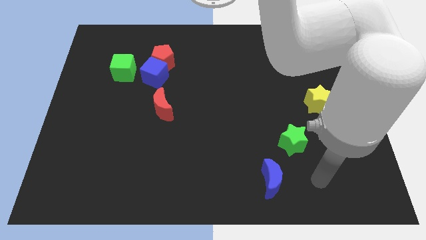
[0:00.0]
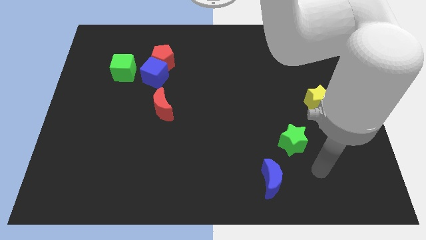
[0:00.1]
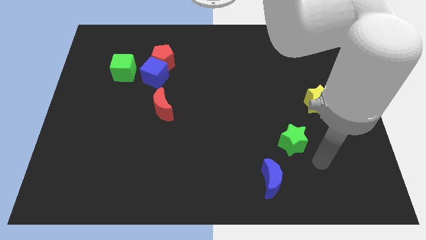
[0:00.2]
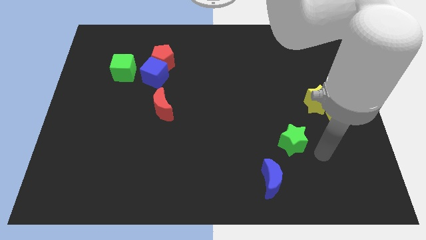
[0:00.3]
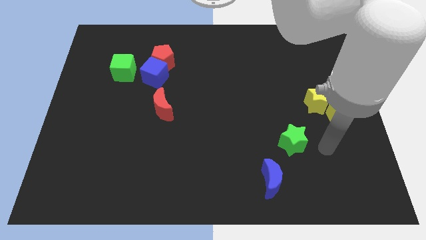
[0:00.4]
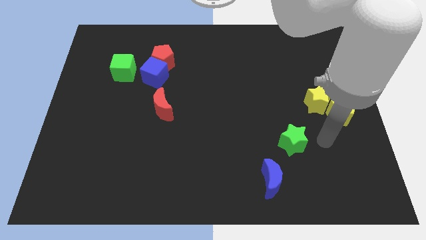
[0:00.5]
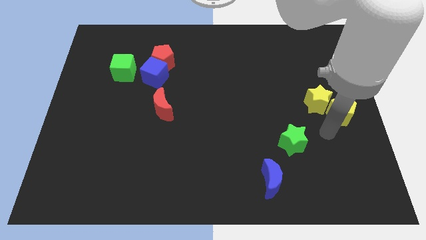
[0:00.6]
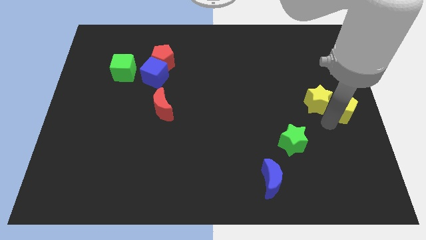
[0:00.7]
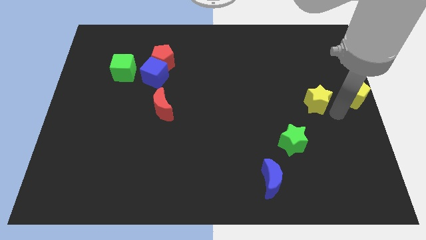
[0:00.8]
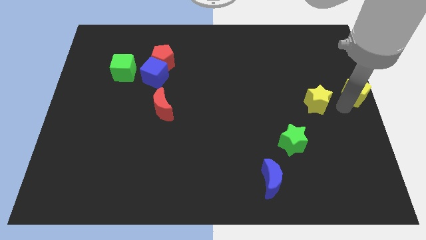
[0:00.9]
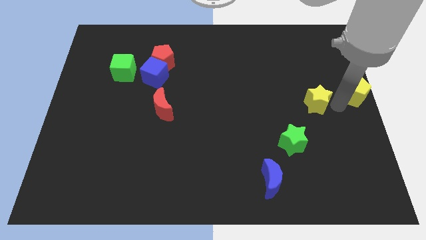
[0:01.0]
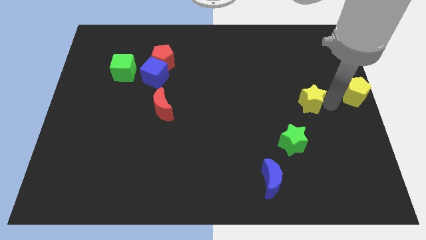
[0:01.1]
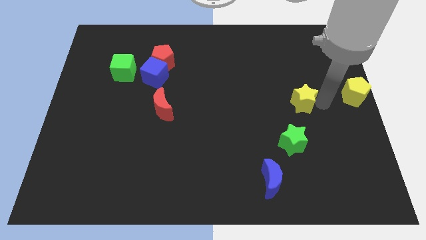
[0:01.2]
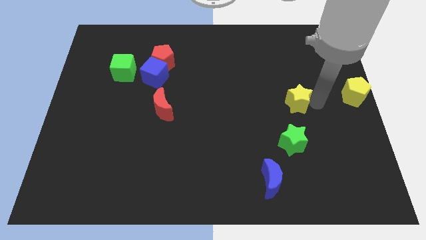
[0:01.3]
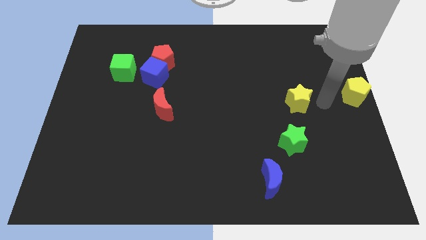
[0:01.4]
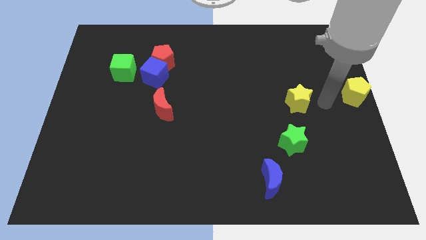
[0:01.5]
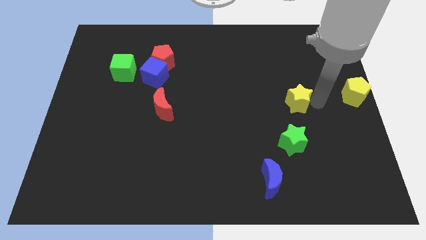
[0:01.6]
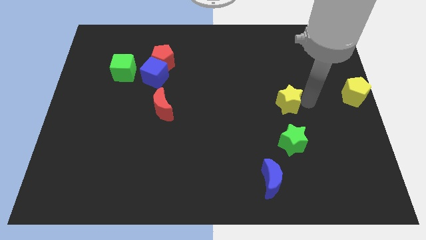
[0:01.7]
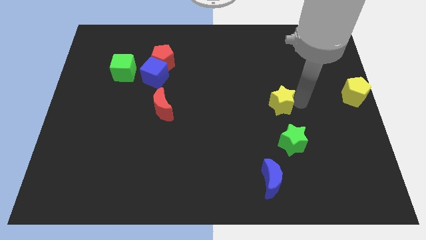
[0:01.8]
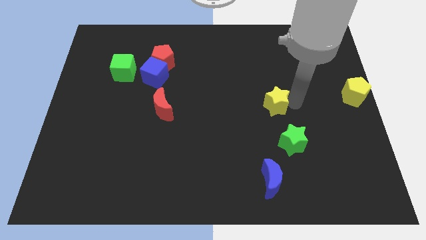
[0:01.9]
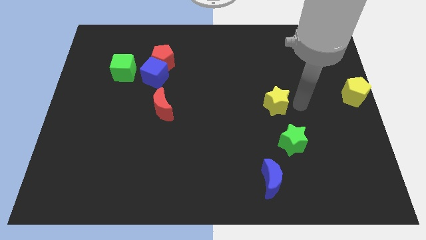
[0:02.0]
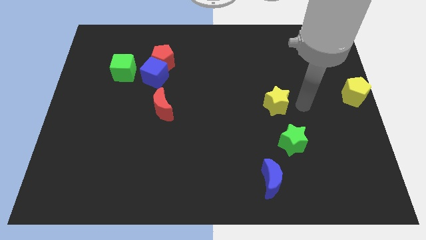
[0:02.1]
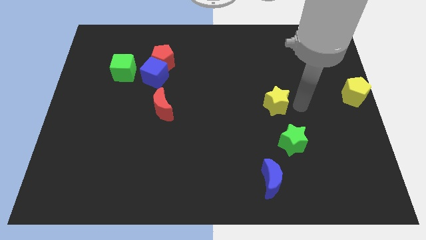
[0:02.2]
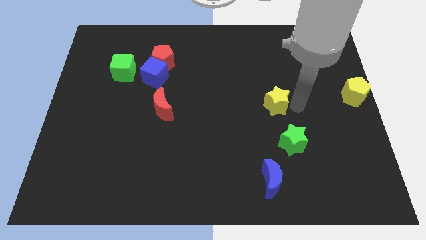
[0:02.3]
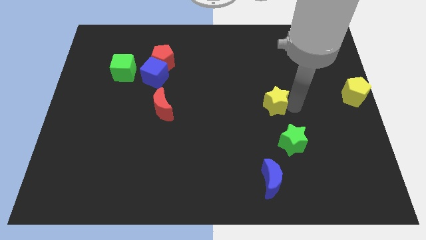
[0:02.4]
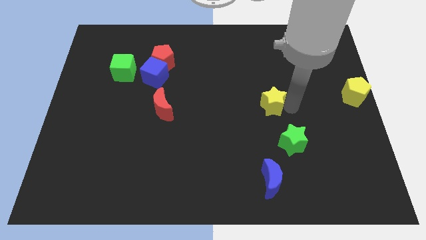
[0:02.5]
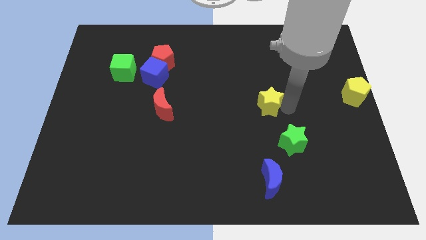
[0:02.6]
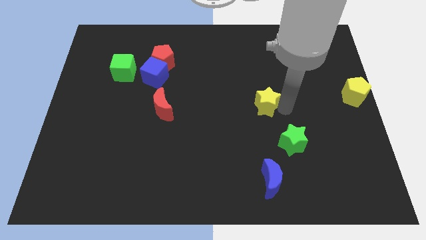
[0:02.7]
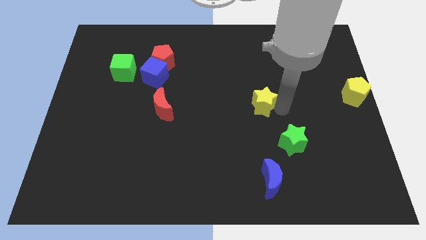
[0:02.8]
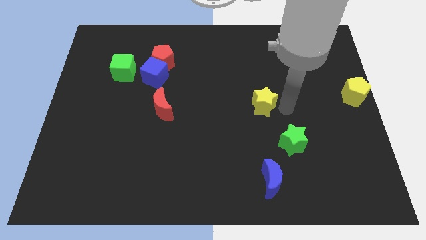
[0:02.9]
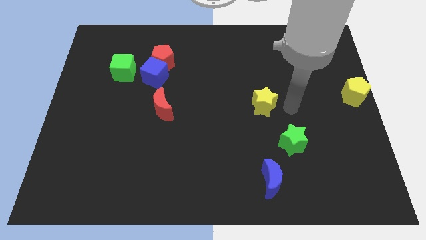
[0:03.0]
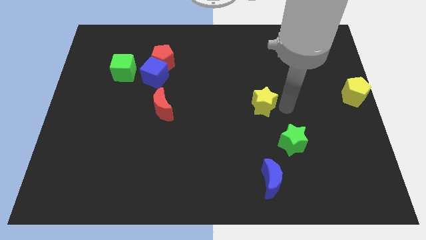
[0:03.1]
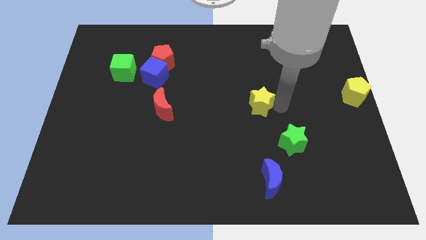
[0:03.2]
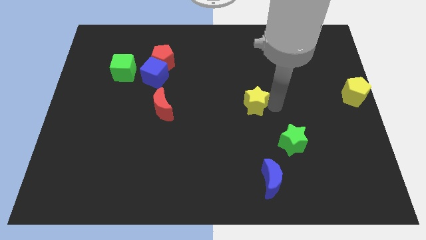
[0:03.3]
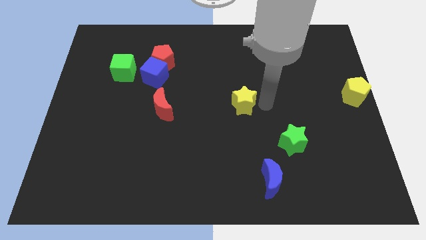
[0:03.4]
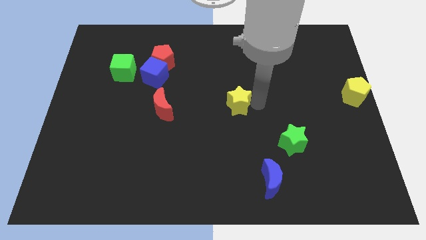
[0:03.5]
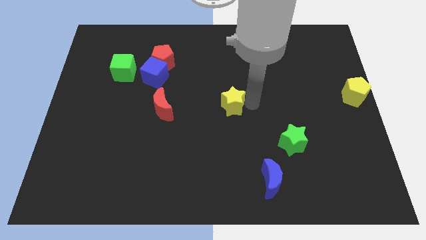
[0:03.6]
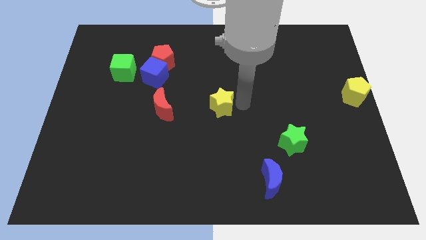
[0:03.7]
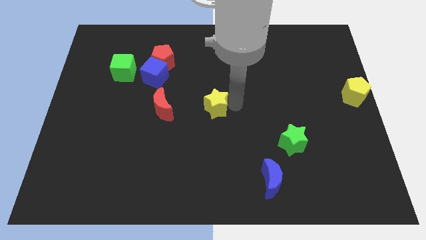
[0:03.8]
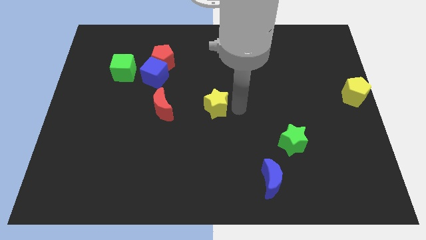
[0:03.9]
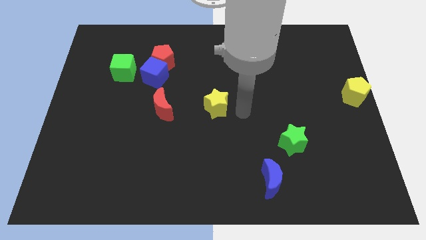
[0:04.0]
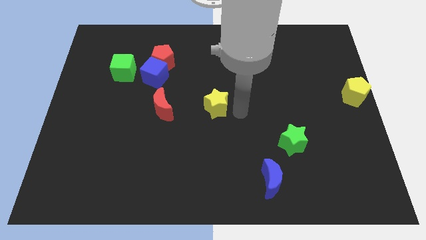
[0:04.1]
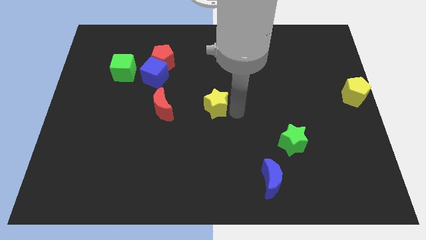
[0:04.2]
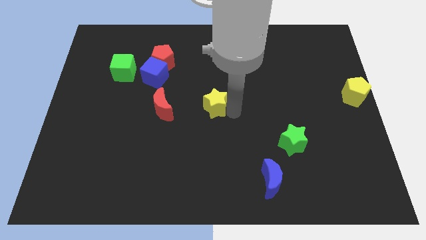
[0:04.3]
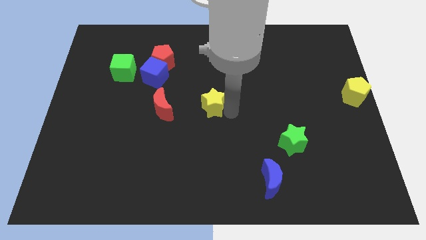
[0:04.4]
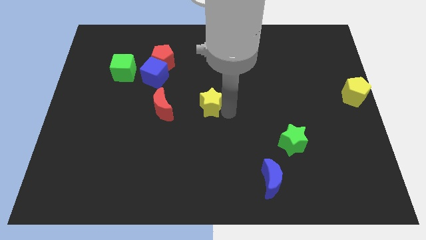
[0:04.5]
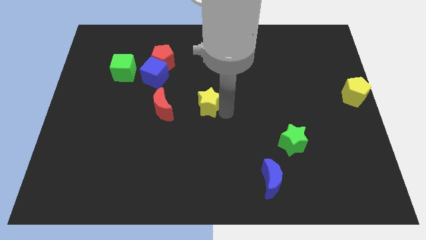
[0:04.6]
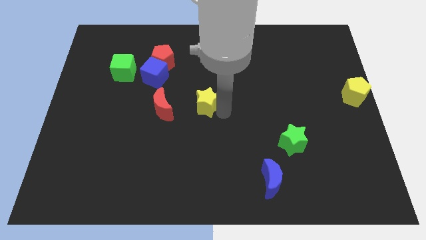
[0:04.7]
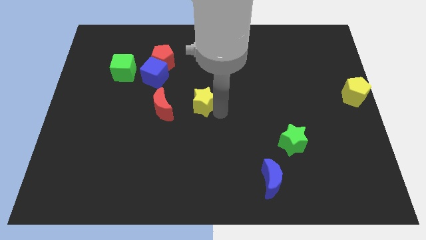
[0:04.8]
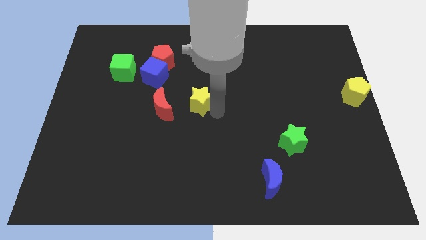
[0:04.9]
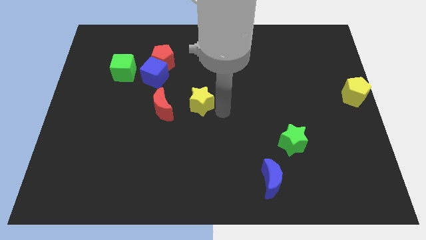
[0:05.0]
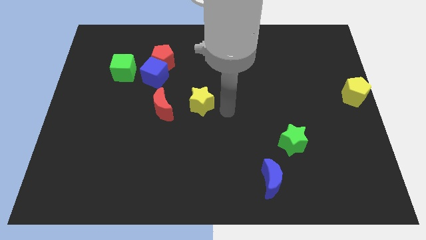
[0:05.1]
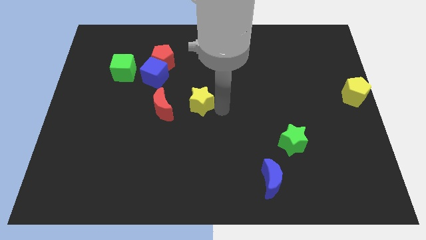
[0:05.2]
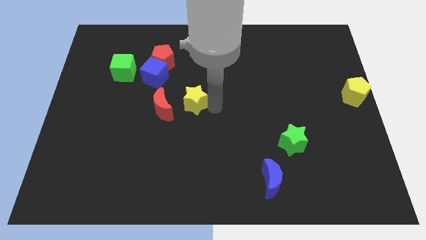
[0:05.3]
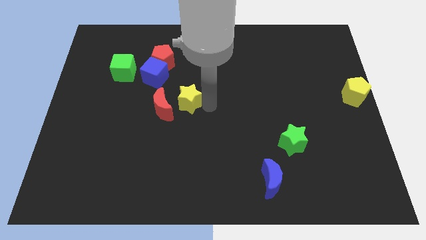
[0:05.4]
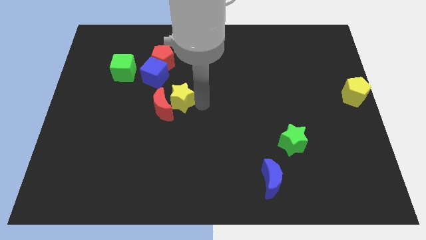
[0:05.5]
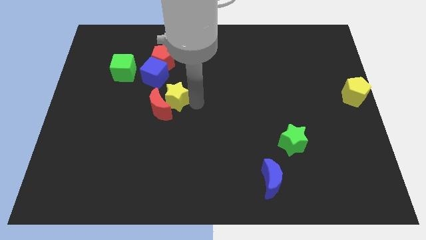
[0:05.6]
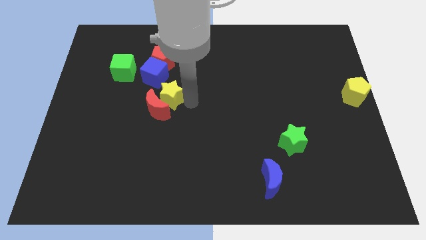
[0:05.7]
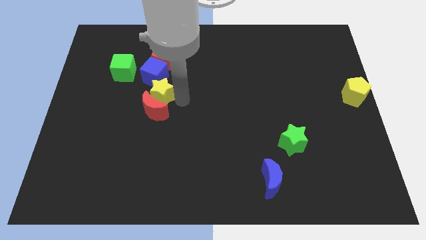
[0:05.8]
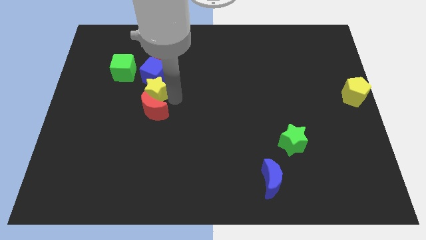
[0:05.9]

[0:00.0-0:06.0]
move the yellow star to the bottom right side of the green cube

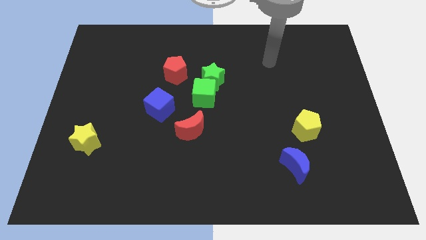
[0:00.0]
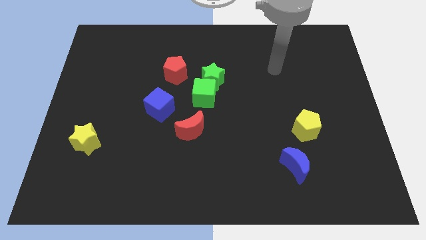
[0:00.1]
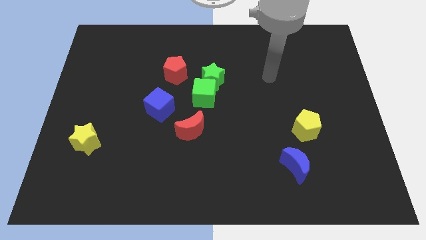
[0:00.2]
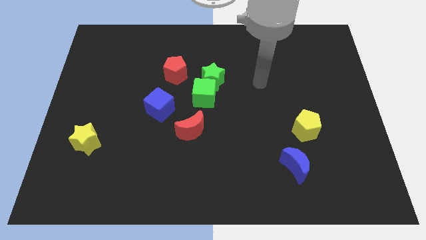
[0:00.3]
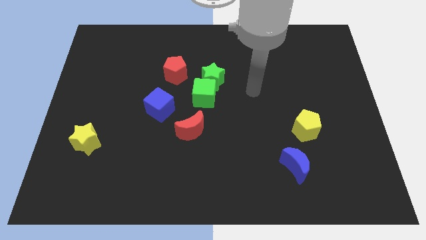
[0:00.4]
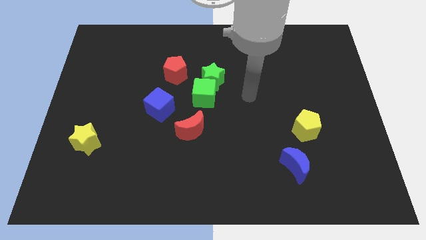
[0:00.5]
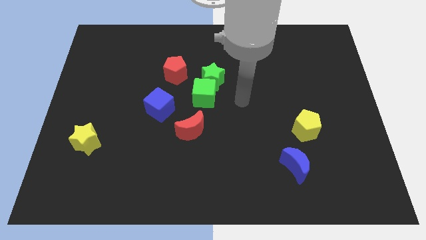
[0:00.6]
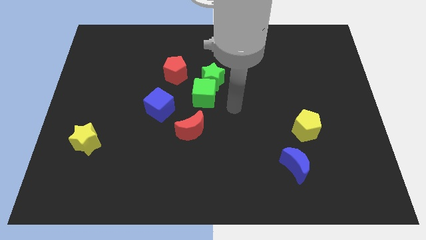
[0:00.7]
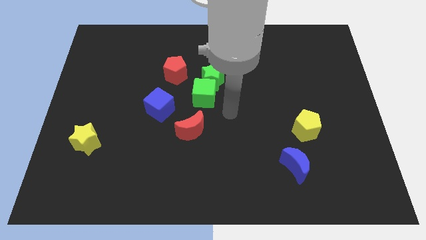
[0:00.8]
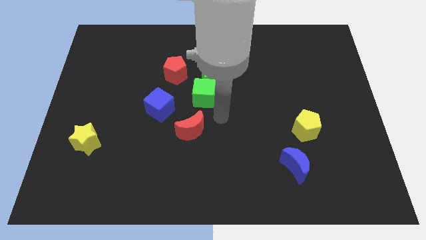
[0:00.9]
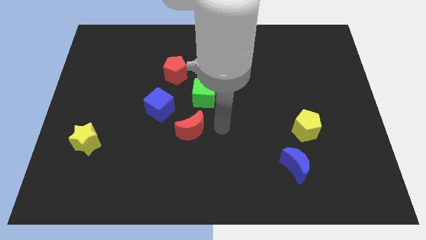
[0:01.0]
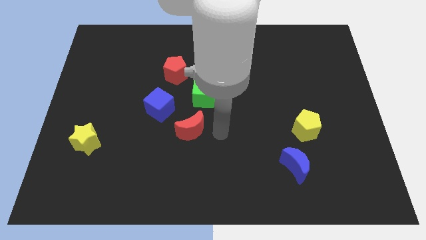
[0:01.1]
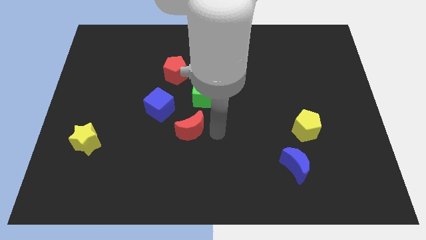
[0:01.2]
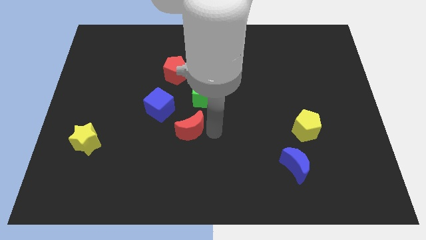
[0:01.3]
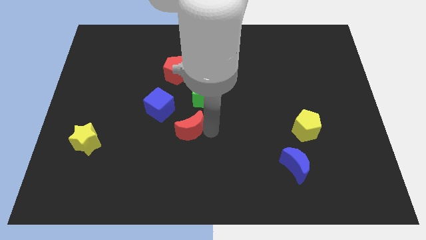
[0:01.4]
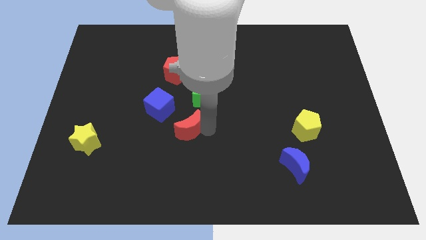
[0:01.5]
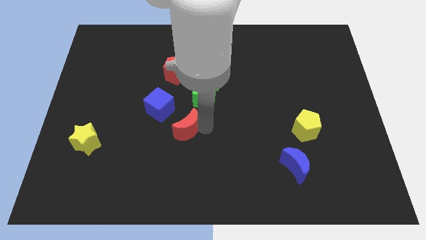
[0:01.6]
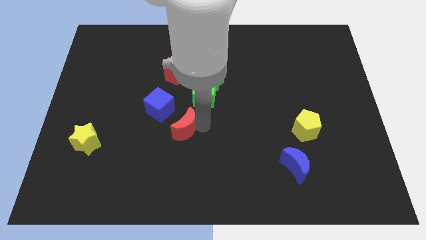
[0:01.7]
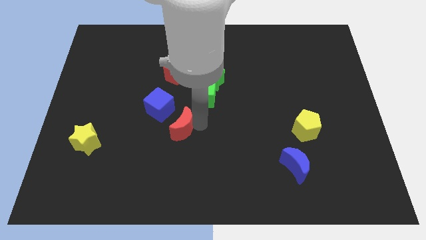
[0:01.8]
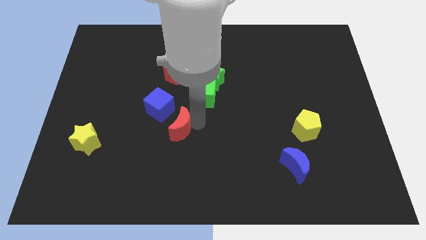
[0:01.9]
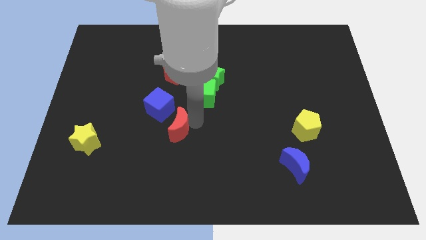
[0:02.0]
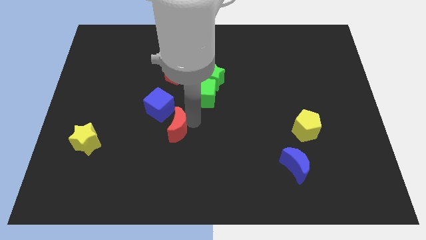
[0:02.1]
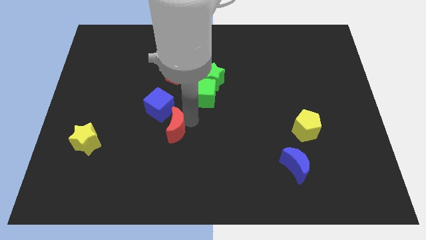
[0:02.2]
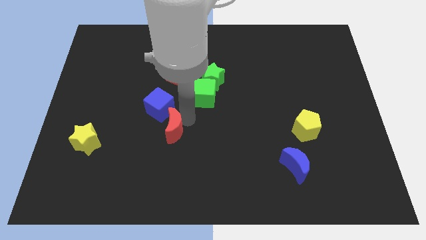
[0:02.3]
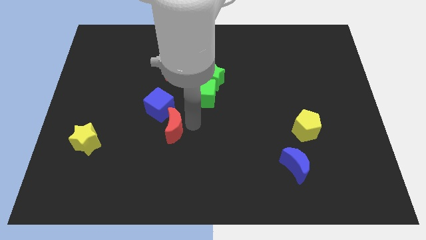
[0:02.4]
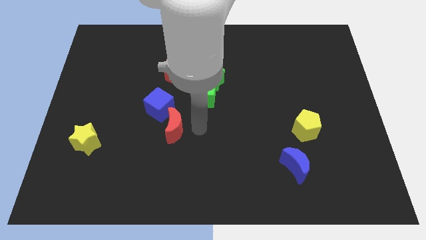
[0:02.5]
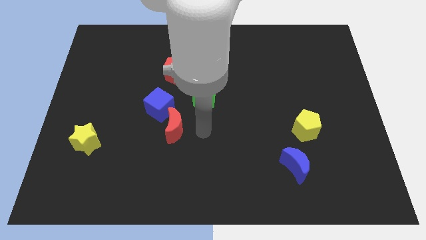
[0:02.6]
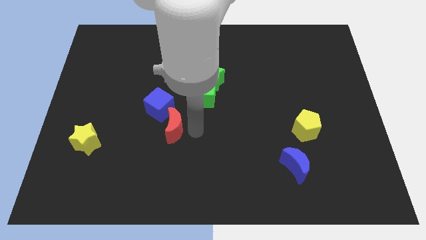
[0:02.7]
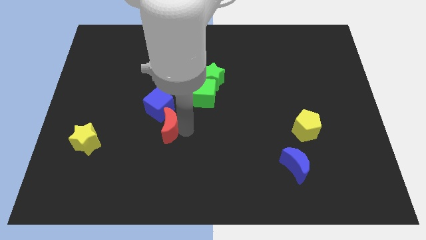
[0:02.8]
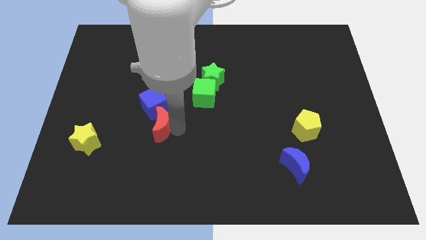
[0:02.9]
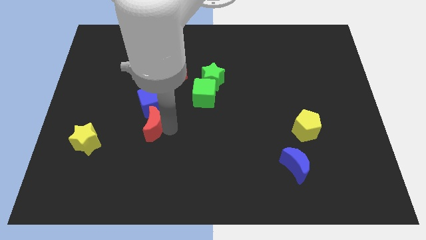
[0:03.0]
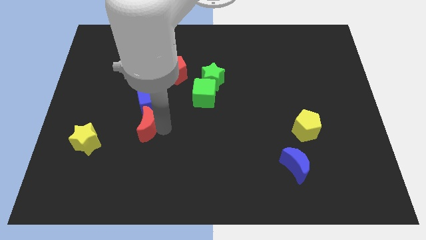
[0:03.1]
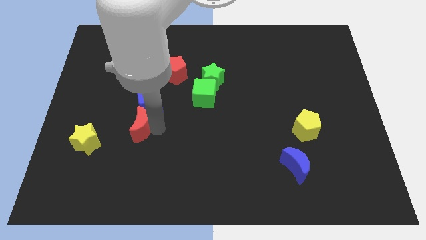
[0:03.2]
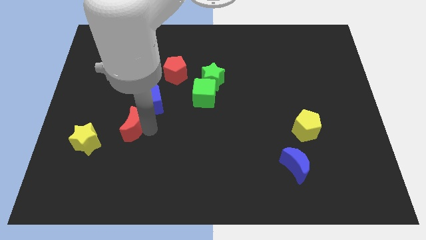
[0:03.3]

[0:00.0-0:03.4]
push the red moon diagonally up and to the right of the yellow star
